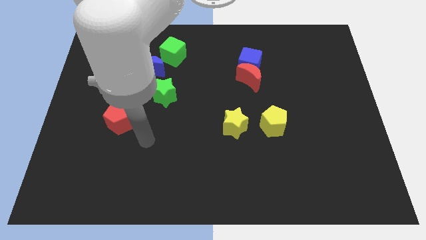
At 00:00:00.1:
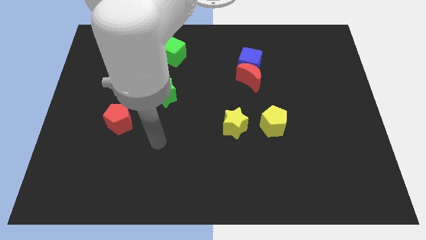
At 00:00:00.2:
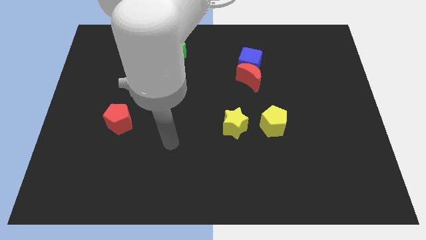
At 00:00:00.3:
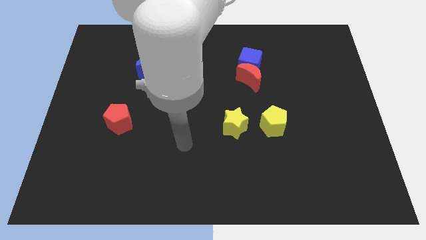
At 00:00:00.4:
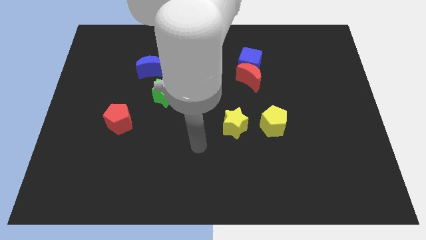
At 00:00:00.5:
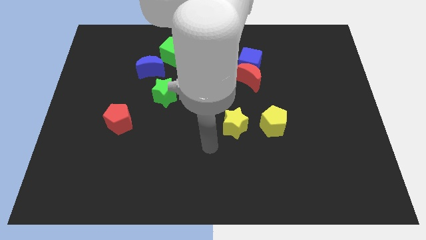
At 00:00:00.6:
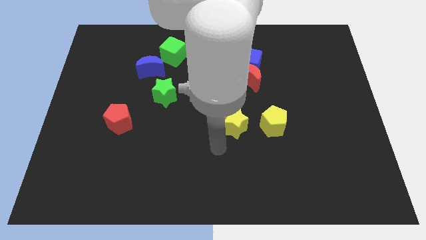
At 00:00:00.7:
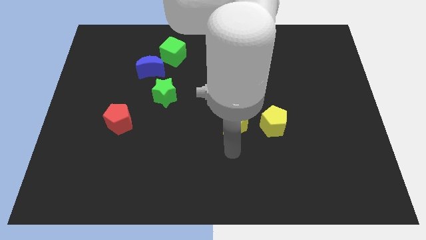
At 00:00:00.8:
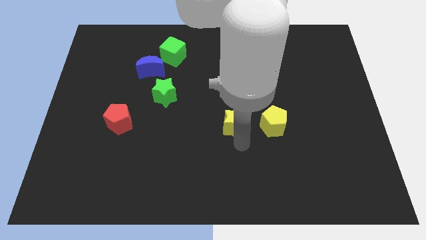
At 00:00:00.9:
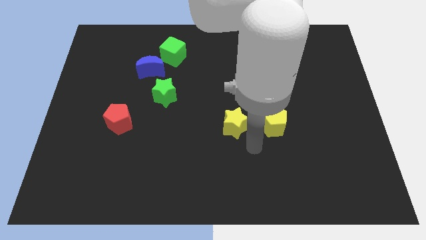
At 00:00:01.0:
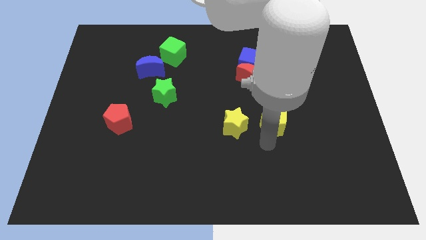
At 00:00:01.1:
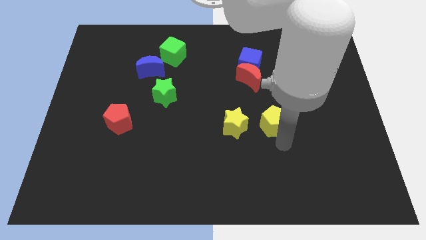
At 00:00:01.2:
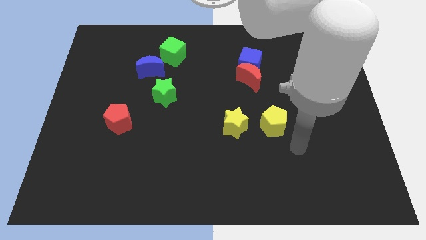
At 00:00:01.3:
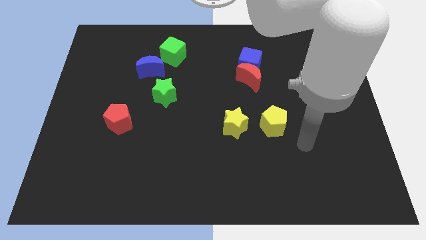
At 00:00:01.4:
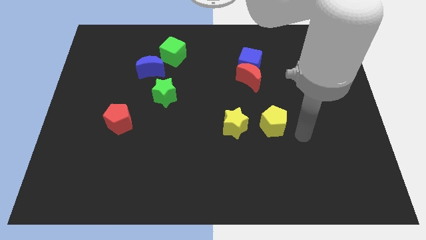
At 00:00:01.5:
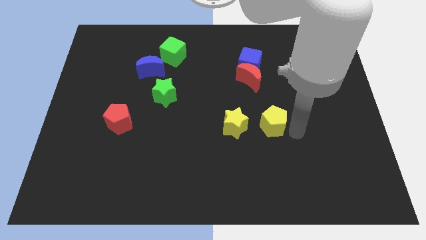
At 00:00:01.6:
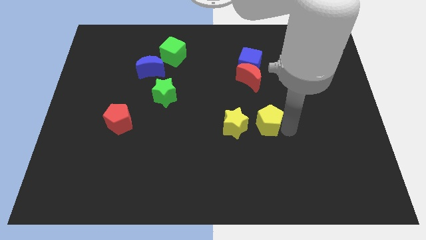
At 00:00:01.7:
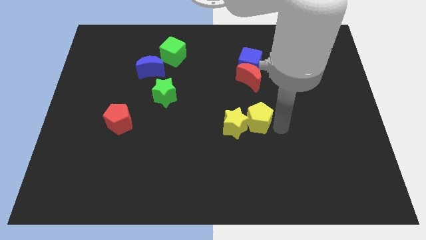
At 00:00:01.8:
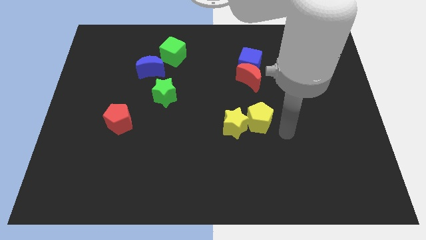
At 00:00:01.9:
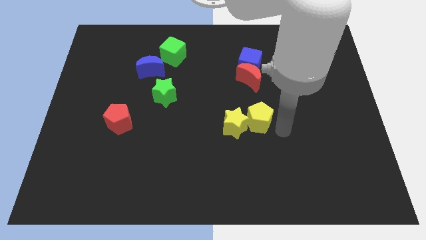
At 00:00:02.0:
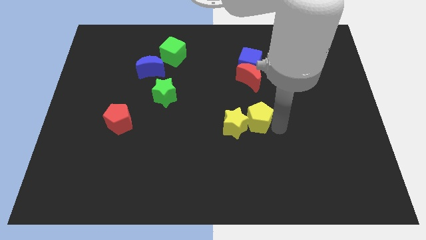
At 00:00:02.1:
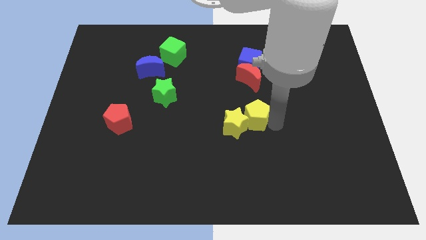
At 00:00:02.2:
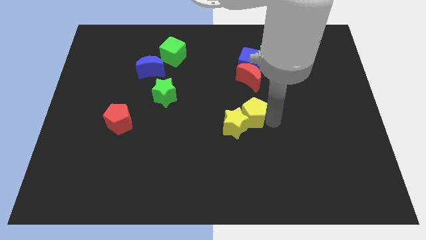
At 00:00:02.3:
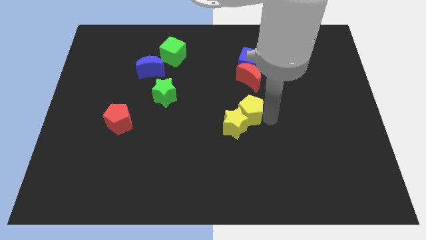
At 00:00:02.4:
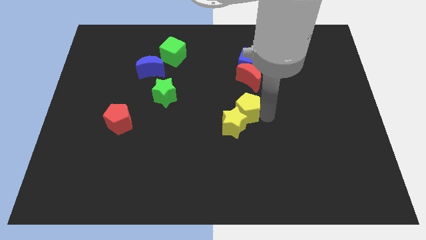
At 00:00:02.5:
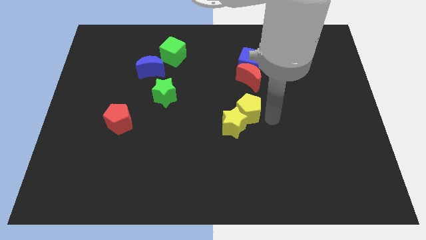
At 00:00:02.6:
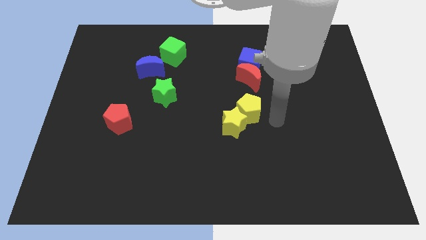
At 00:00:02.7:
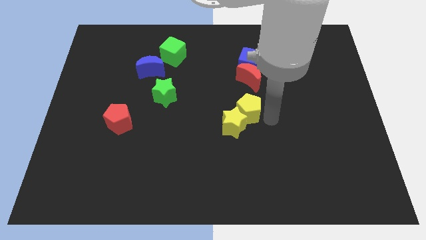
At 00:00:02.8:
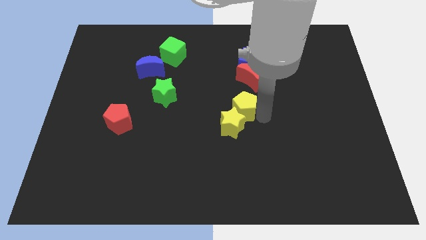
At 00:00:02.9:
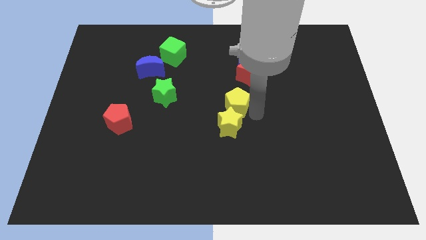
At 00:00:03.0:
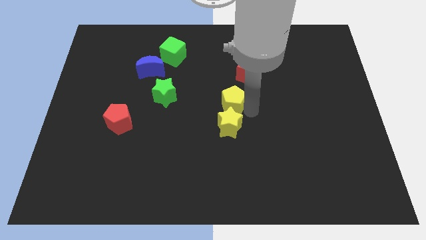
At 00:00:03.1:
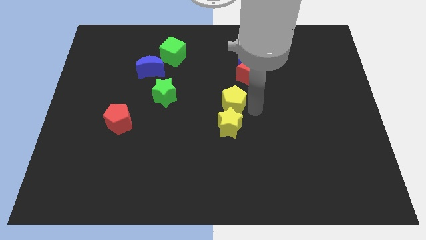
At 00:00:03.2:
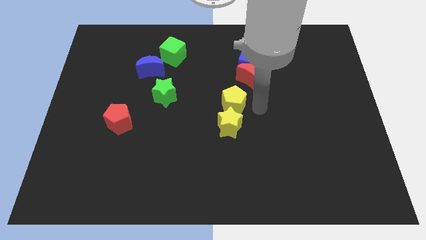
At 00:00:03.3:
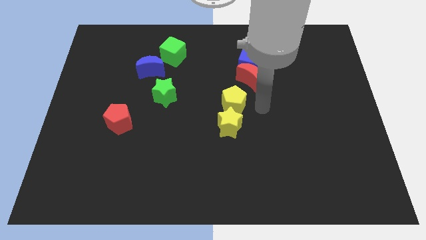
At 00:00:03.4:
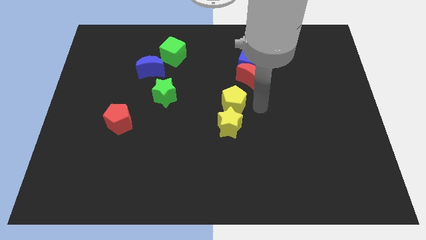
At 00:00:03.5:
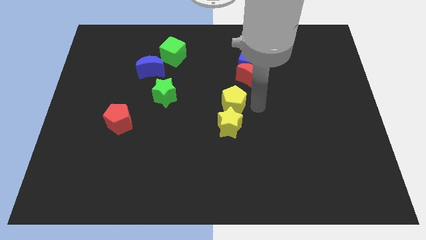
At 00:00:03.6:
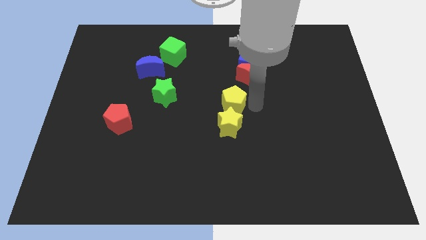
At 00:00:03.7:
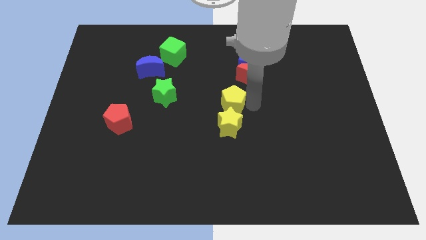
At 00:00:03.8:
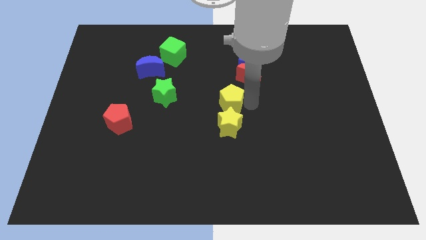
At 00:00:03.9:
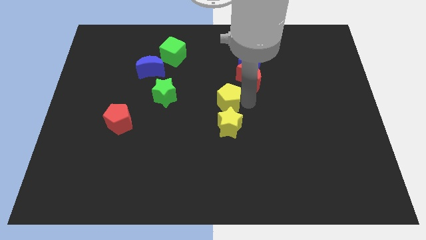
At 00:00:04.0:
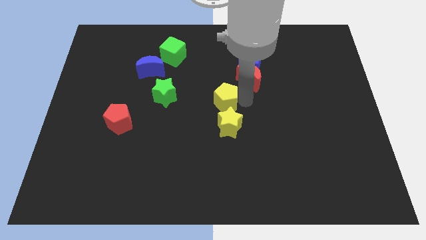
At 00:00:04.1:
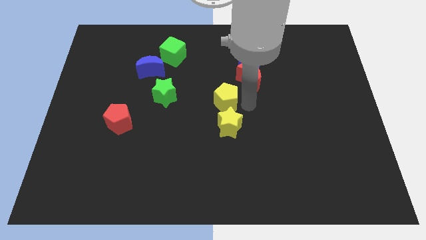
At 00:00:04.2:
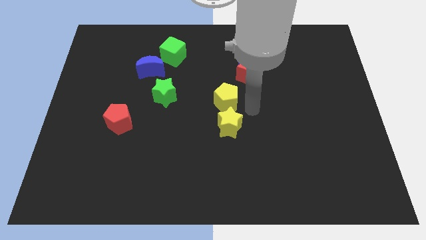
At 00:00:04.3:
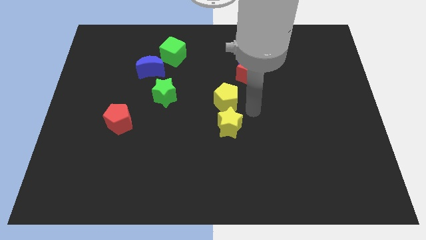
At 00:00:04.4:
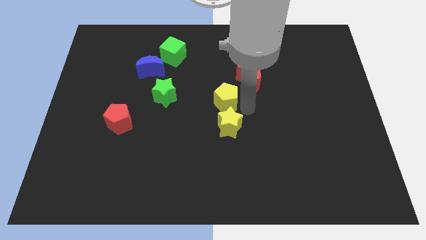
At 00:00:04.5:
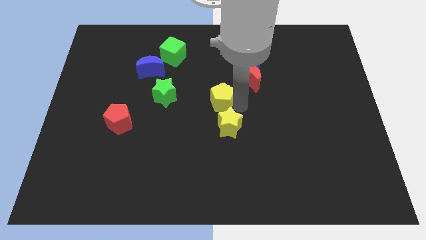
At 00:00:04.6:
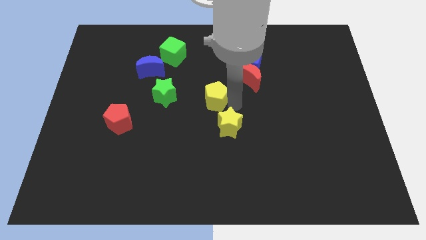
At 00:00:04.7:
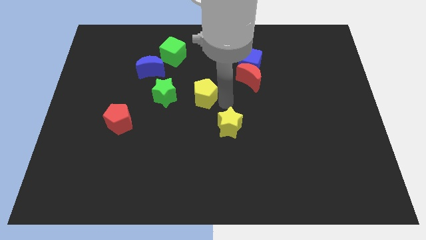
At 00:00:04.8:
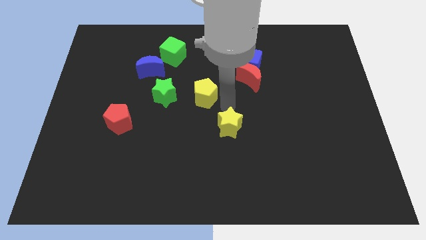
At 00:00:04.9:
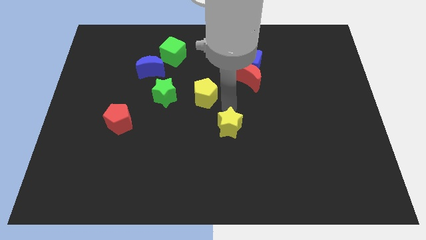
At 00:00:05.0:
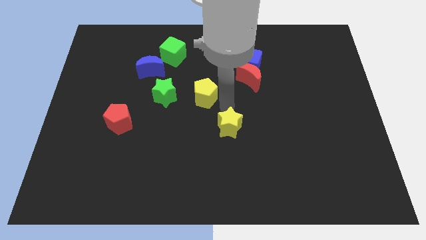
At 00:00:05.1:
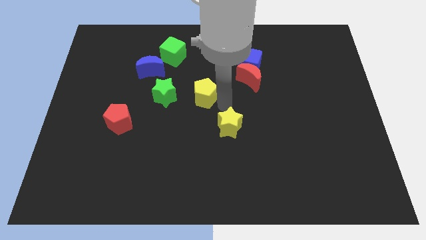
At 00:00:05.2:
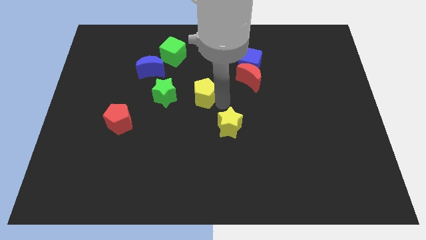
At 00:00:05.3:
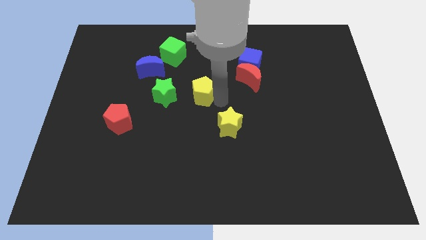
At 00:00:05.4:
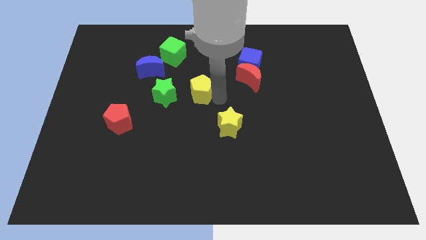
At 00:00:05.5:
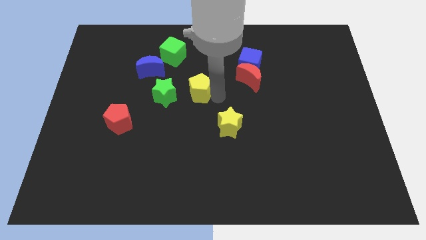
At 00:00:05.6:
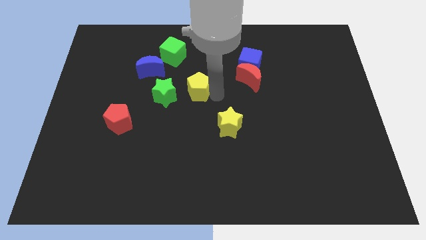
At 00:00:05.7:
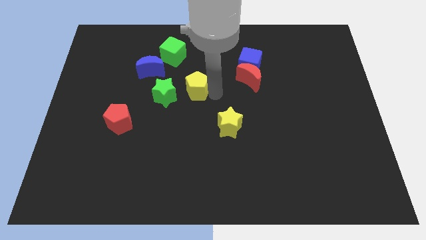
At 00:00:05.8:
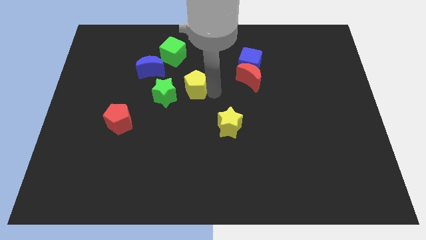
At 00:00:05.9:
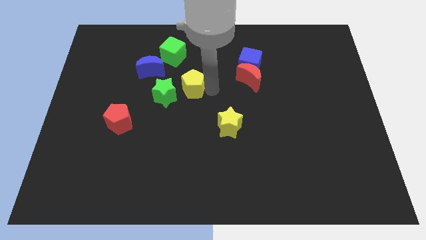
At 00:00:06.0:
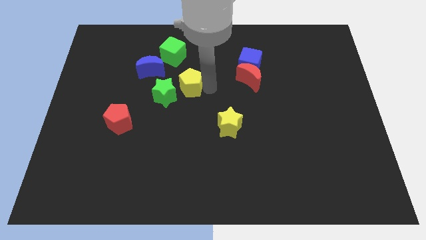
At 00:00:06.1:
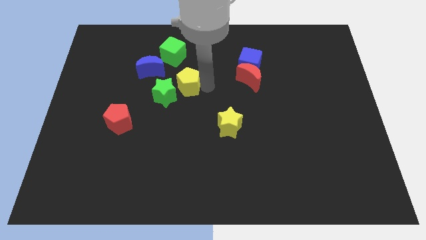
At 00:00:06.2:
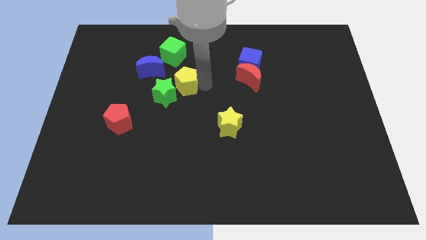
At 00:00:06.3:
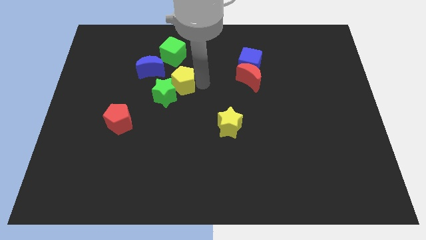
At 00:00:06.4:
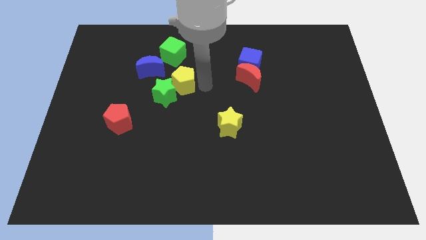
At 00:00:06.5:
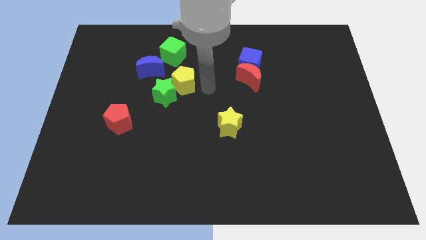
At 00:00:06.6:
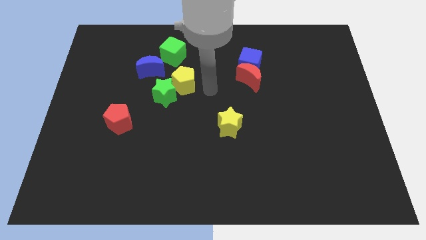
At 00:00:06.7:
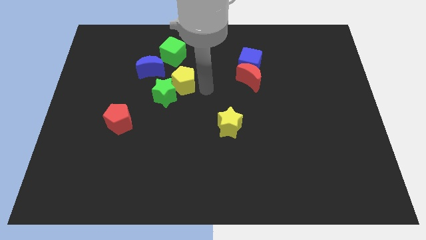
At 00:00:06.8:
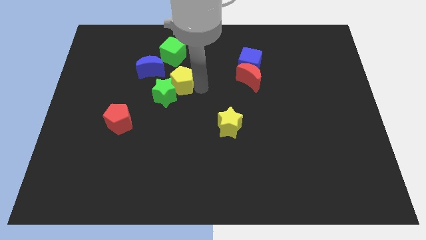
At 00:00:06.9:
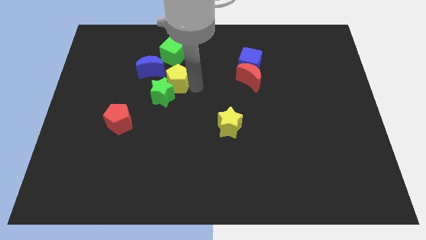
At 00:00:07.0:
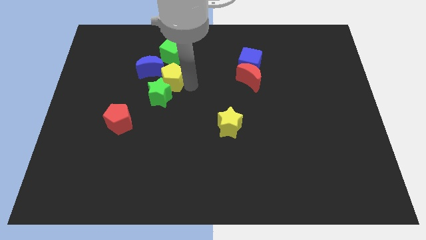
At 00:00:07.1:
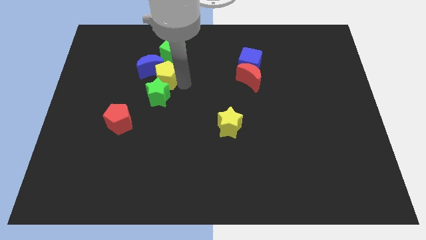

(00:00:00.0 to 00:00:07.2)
move the yellow pentagon close to the blue moon
